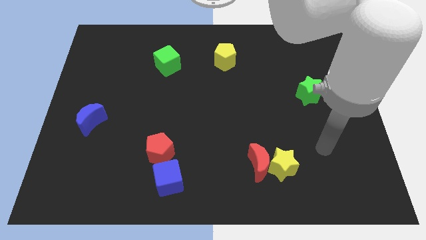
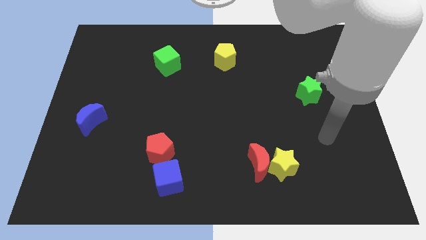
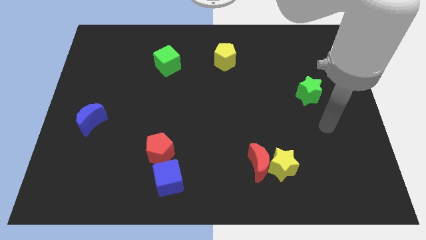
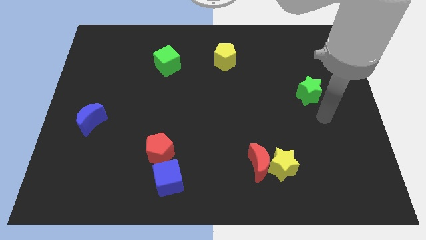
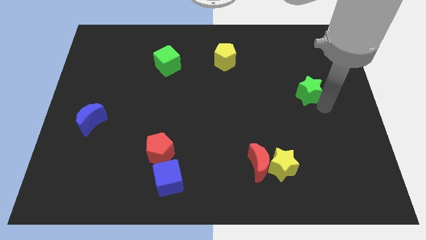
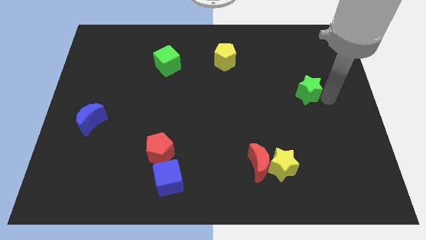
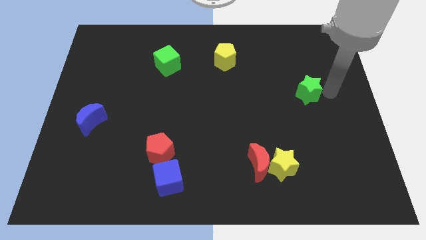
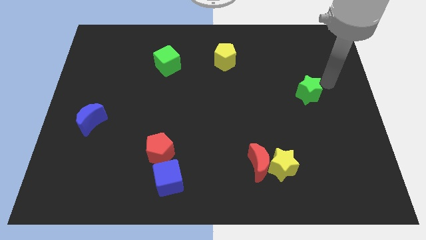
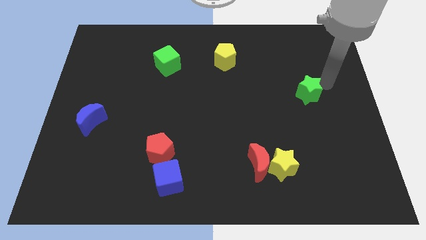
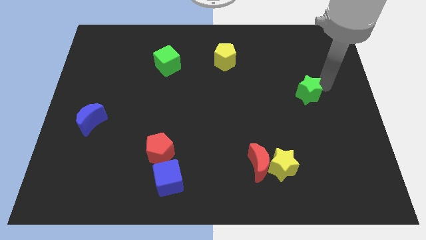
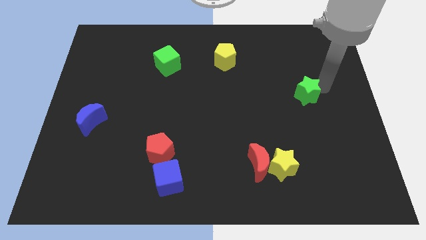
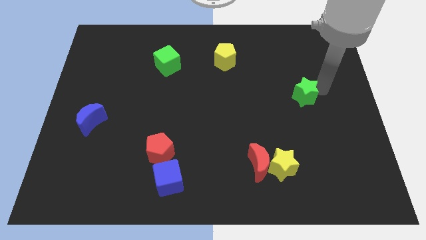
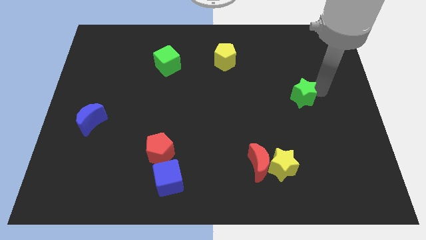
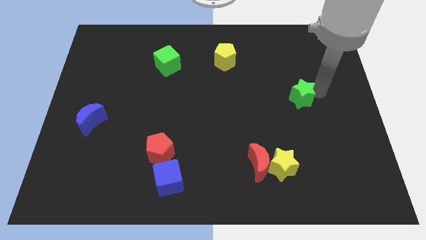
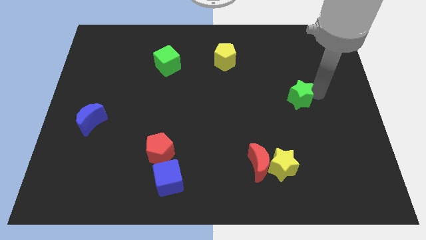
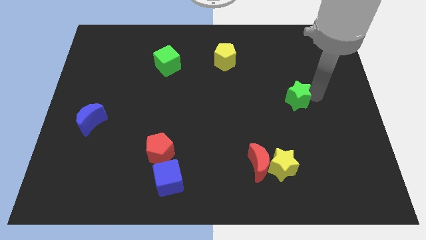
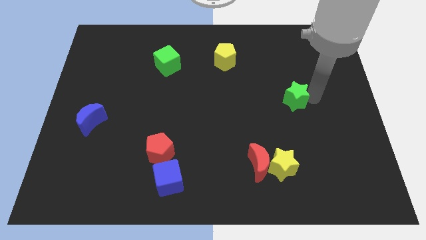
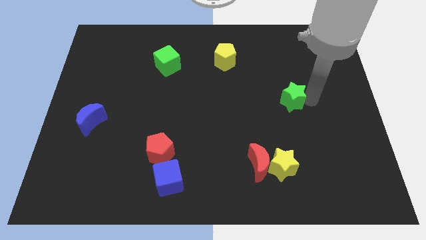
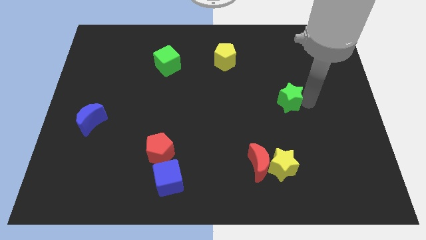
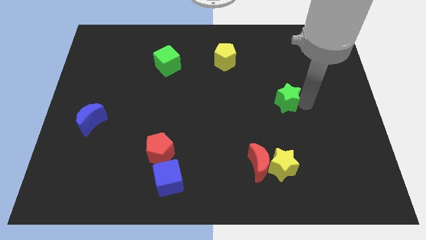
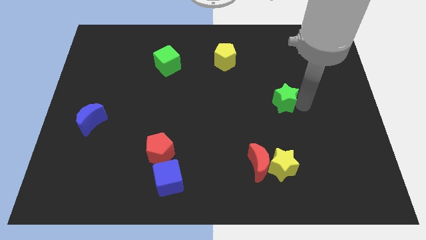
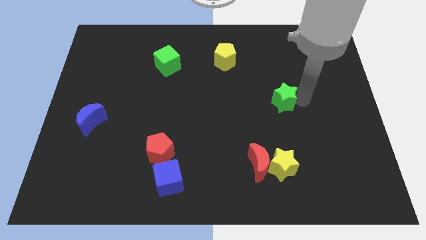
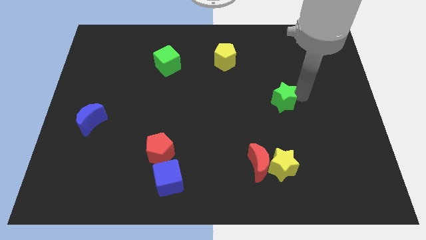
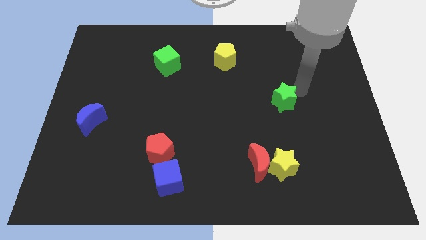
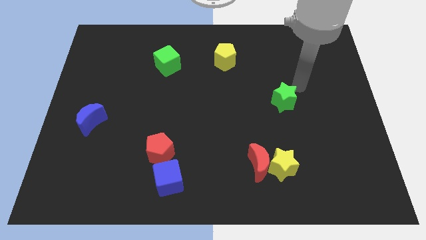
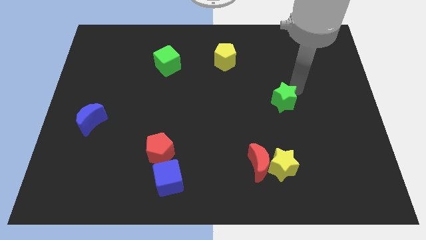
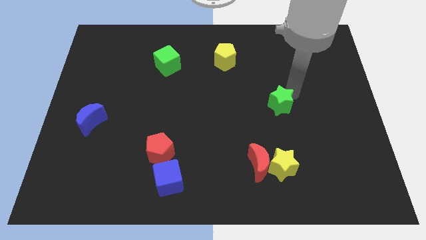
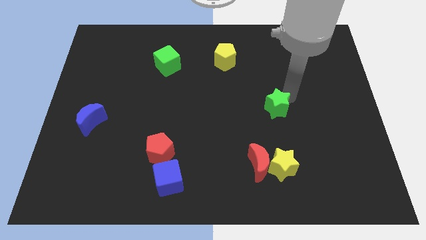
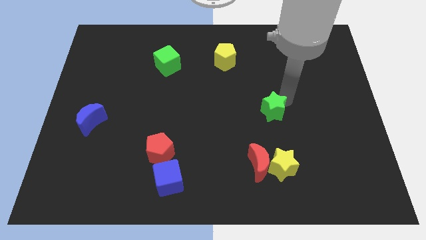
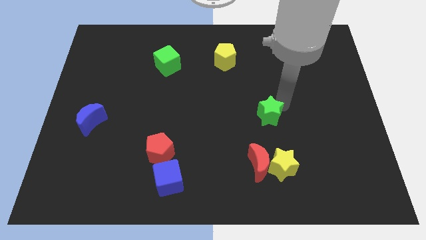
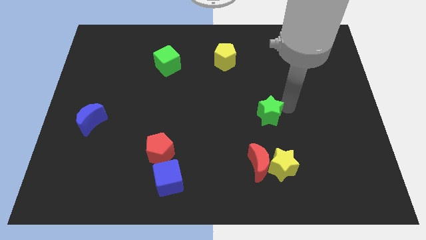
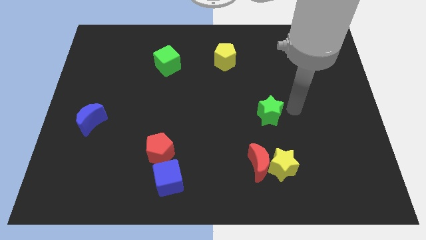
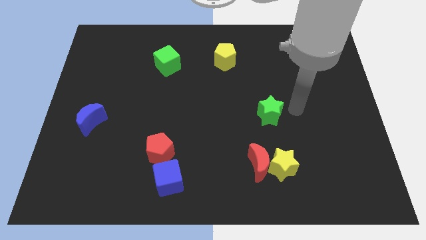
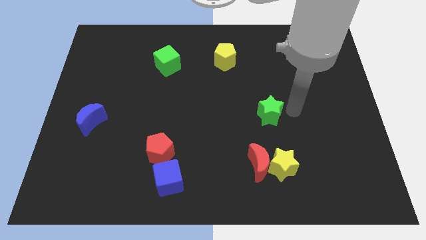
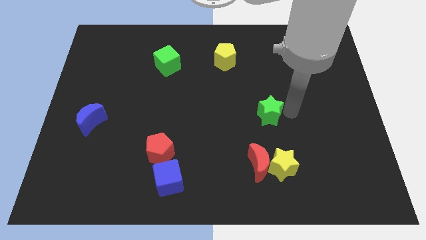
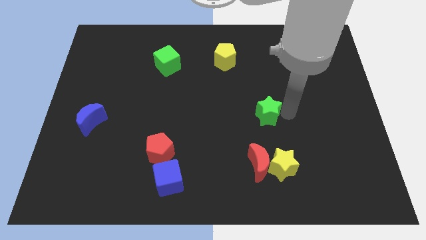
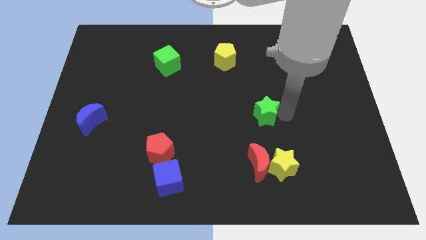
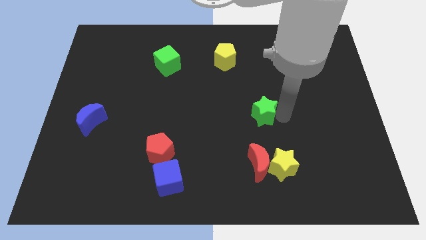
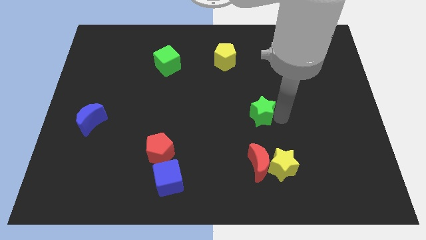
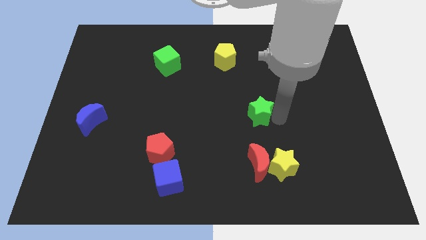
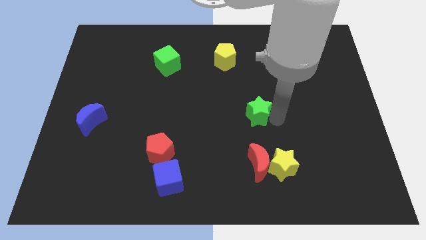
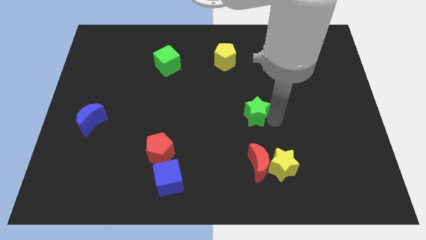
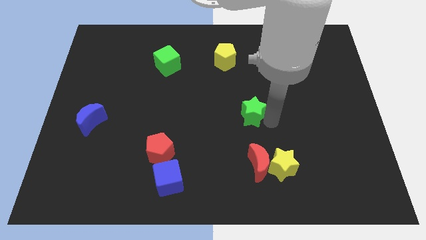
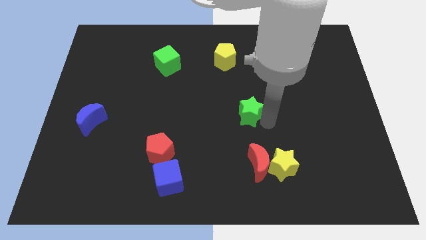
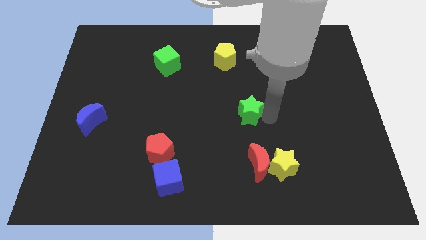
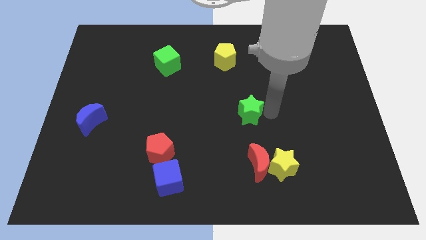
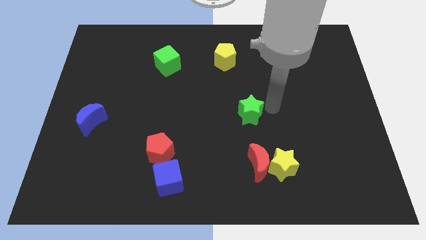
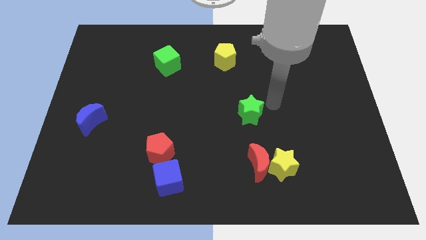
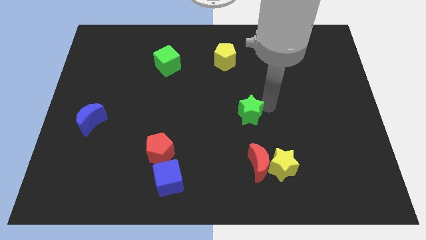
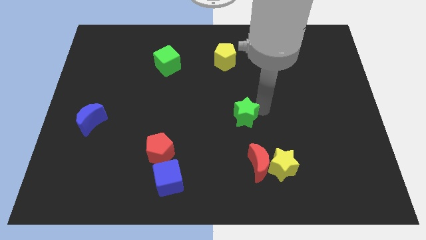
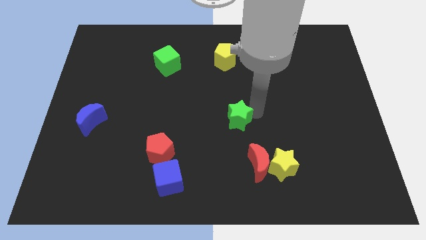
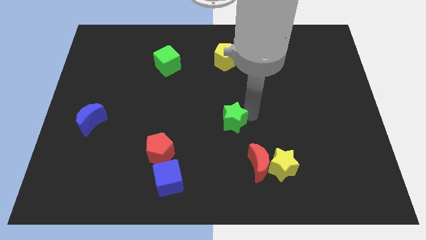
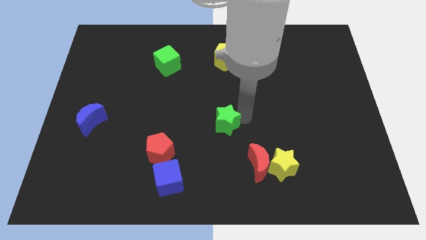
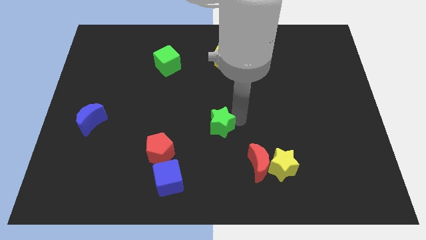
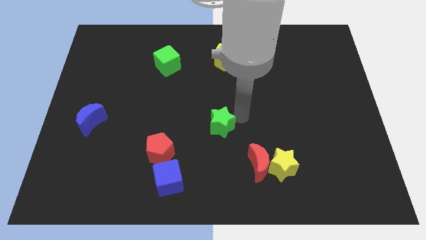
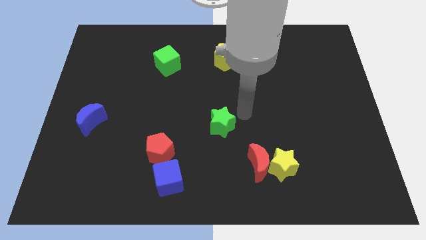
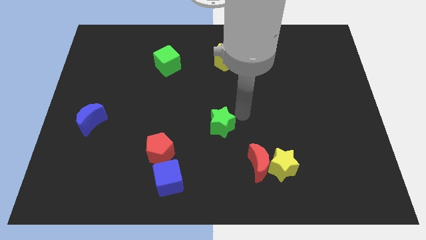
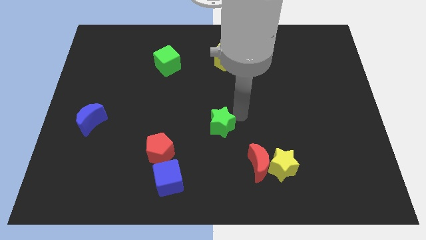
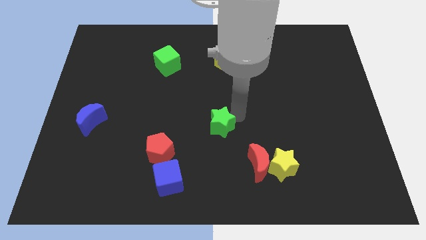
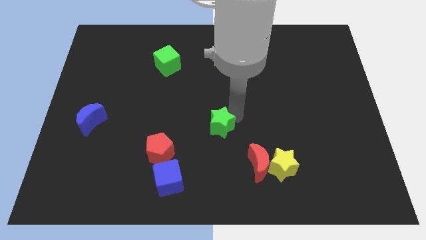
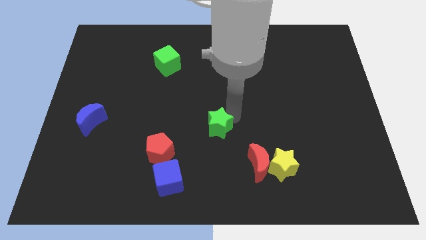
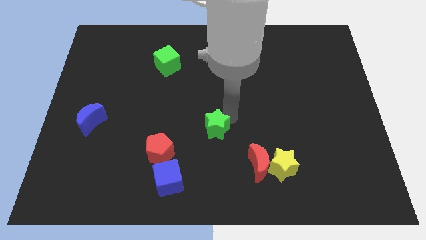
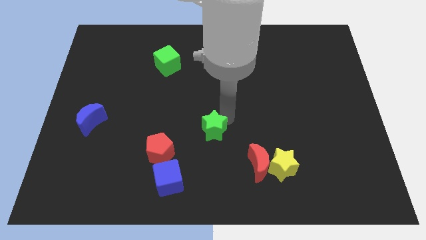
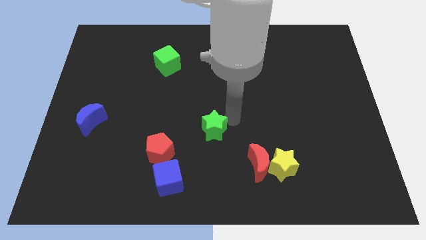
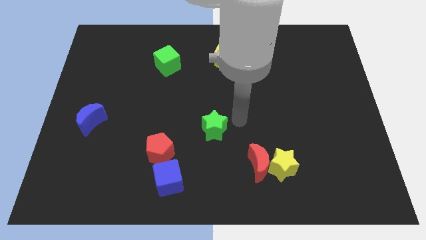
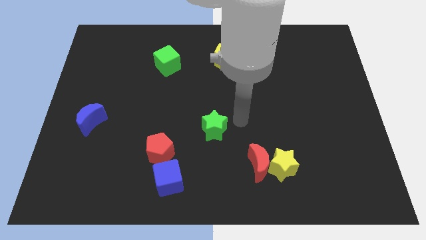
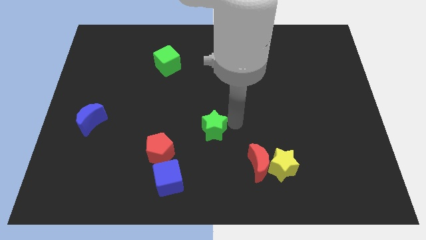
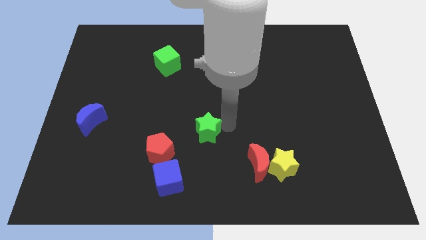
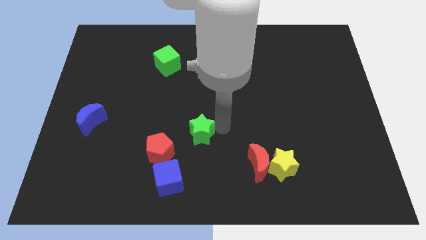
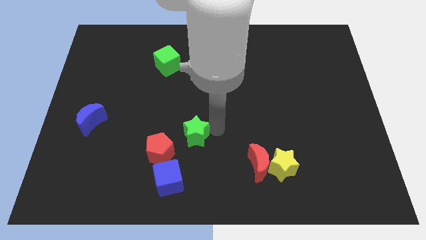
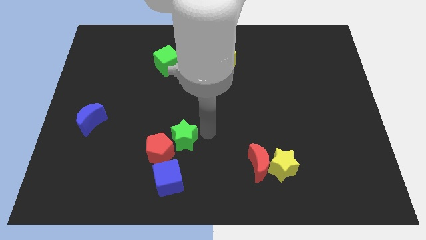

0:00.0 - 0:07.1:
push the green star next to the red pentagon

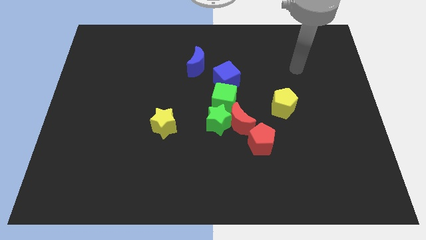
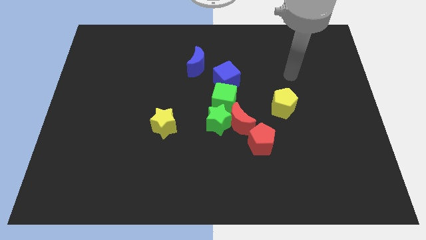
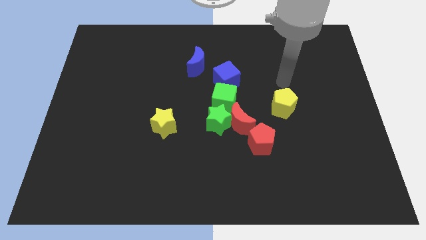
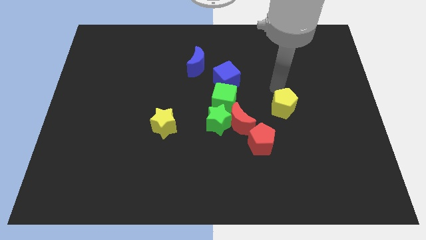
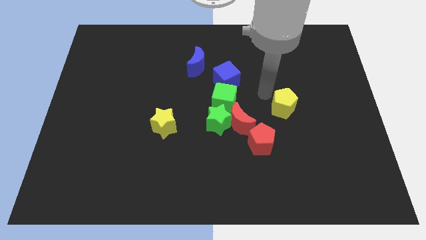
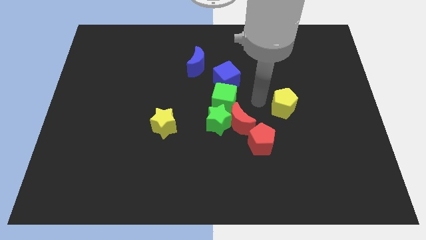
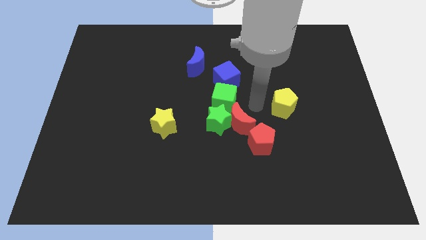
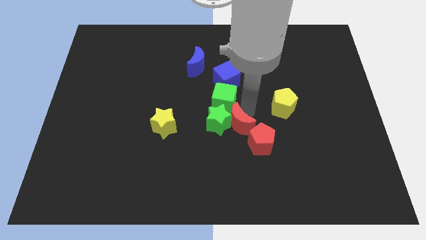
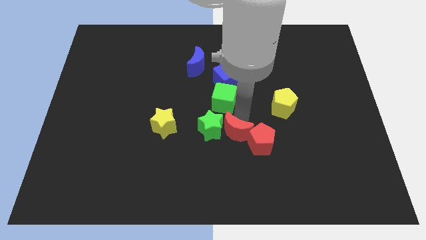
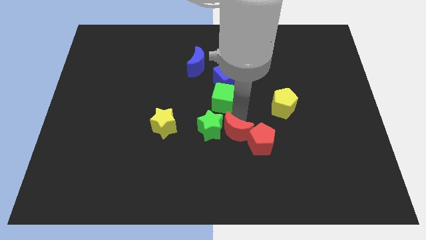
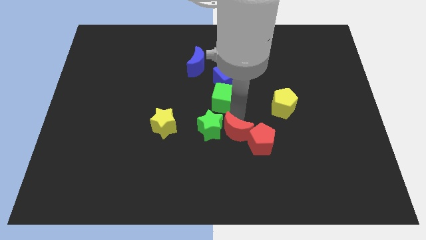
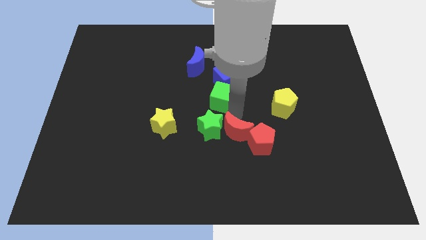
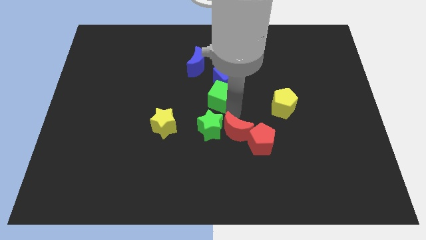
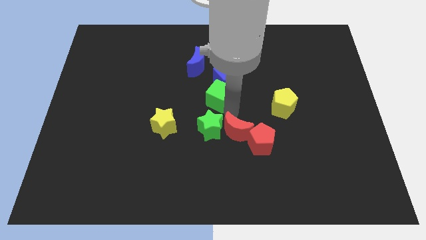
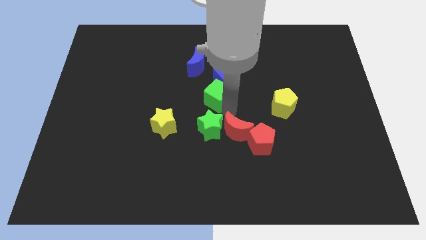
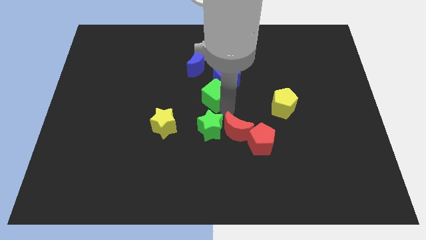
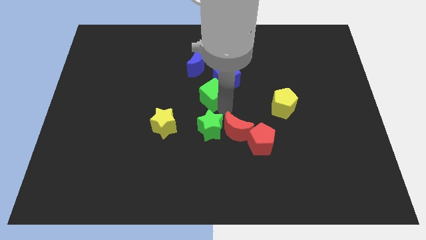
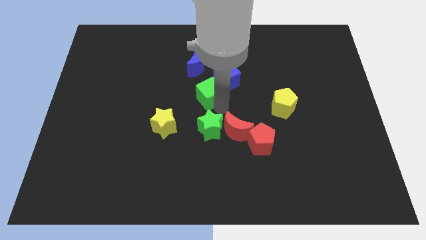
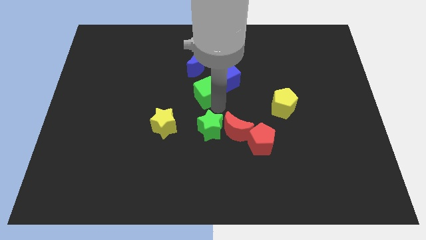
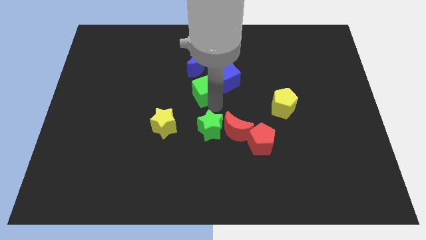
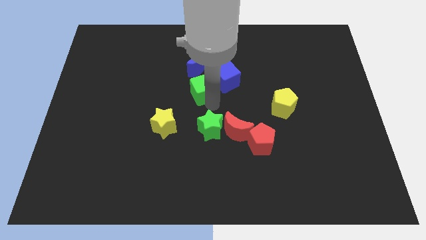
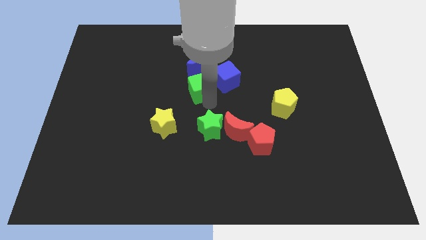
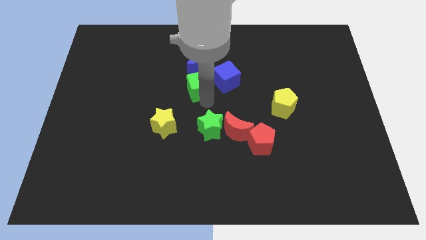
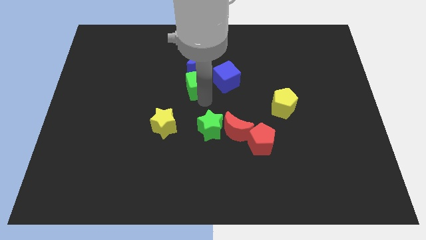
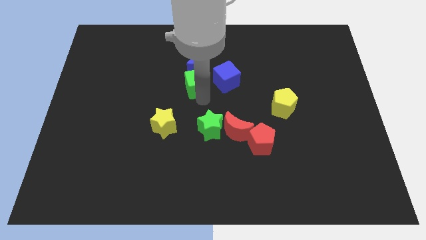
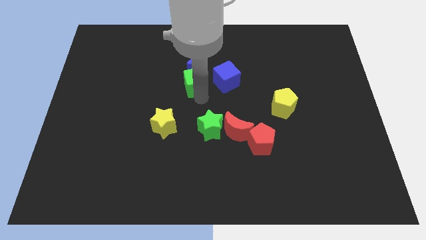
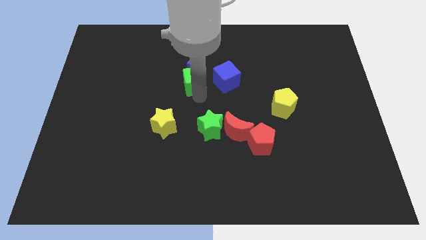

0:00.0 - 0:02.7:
move the green cube to the blue moon
